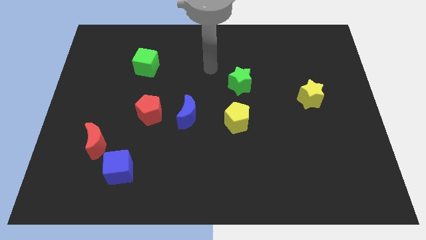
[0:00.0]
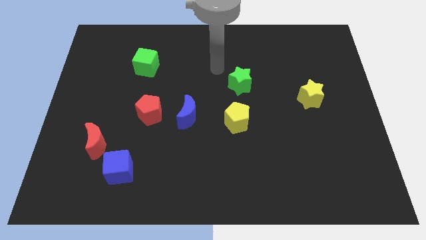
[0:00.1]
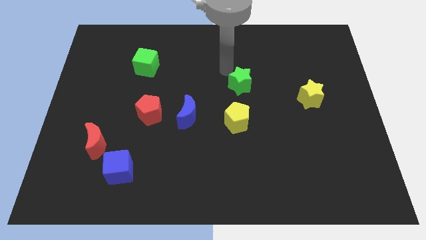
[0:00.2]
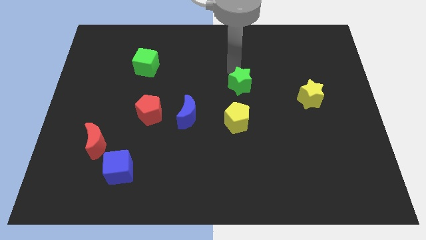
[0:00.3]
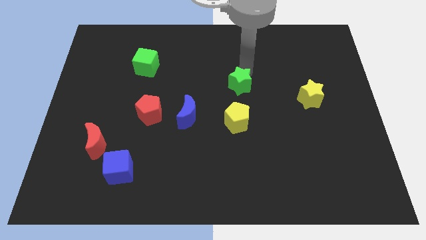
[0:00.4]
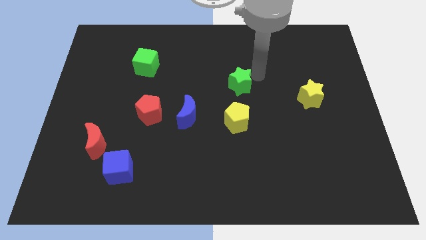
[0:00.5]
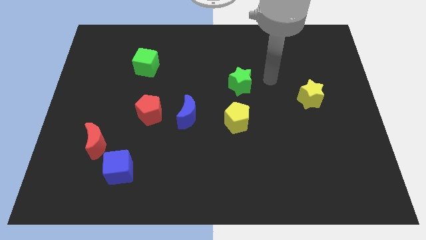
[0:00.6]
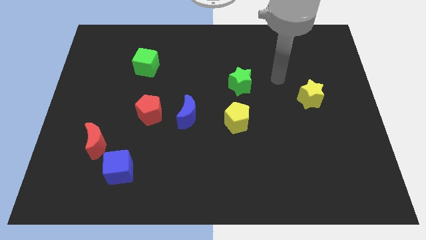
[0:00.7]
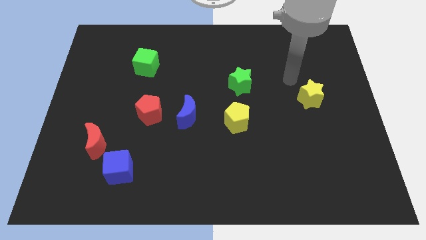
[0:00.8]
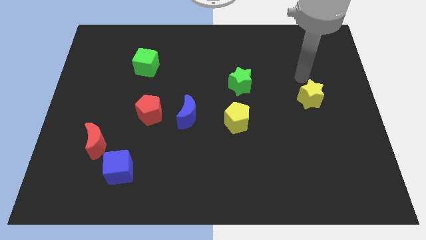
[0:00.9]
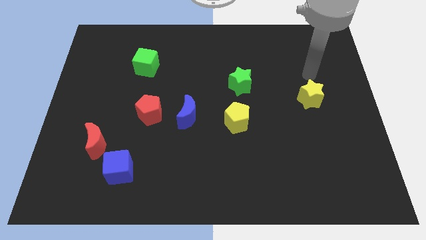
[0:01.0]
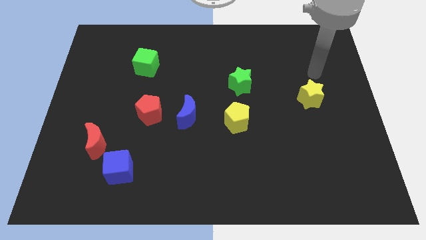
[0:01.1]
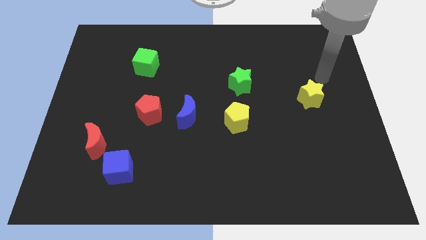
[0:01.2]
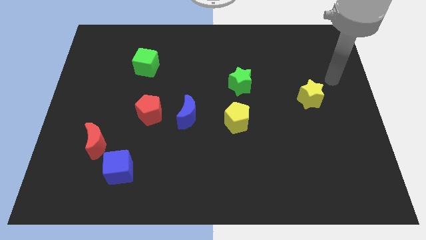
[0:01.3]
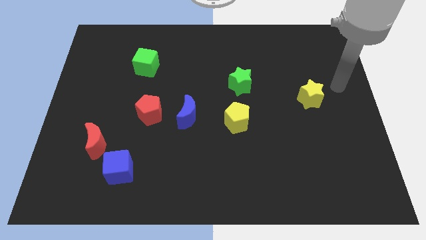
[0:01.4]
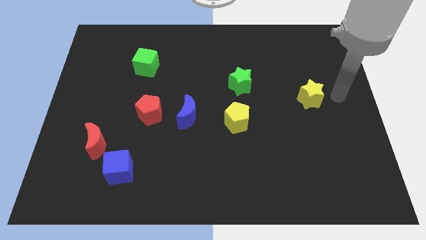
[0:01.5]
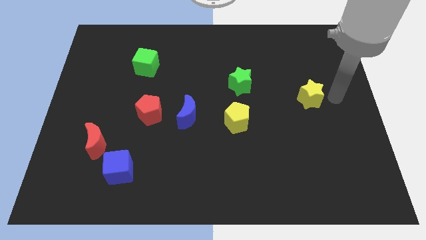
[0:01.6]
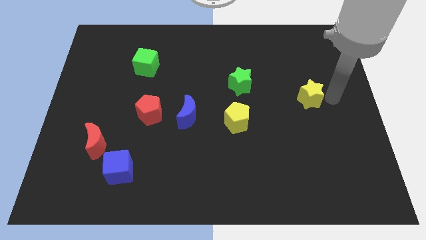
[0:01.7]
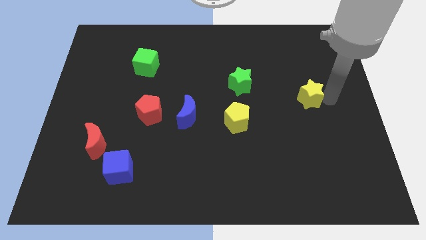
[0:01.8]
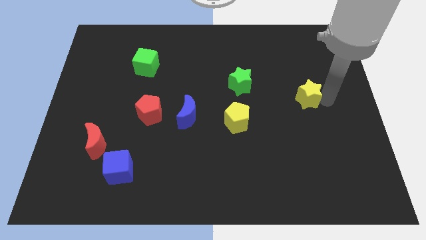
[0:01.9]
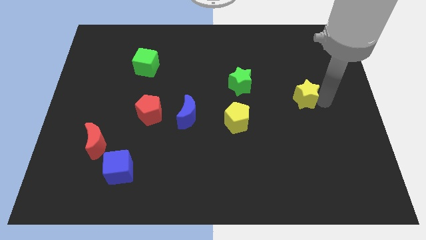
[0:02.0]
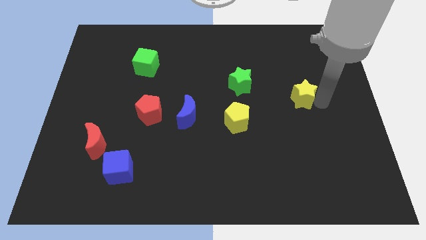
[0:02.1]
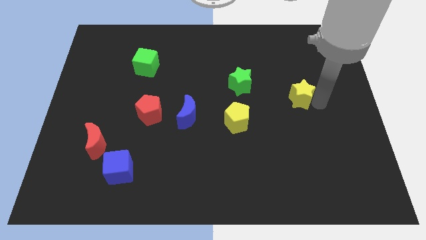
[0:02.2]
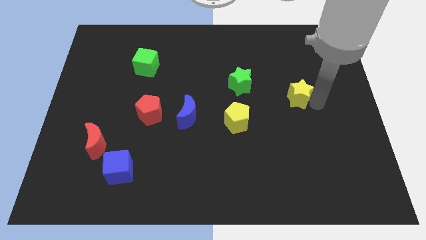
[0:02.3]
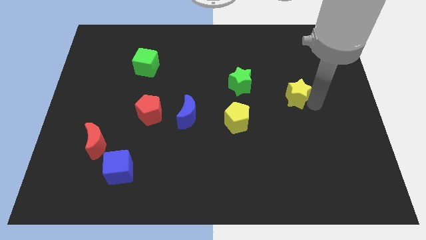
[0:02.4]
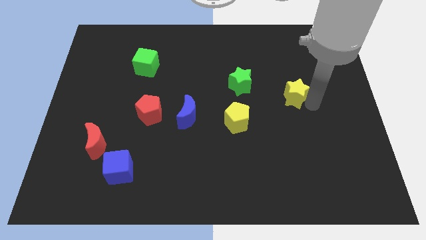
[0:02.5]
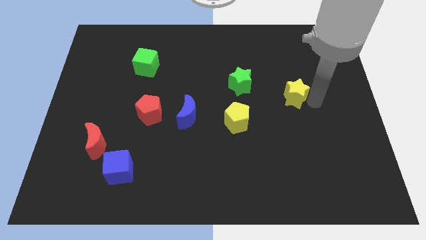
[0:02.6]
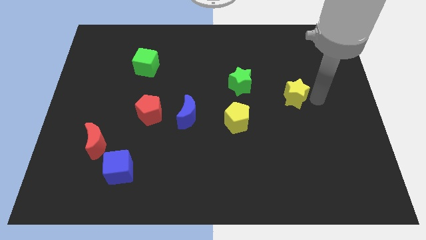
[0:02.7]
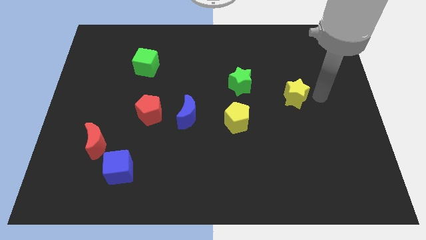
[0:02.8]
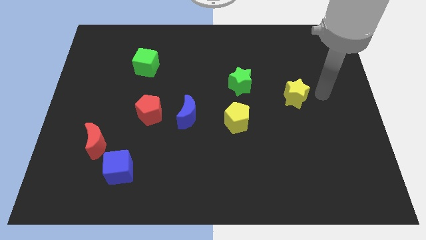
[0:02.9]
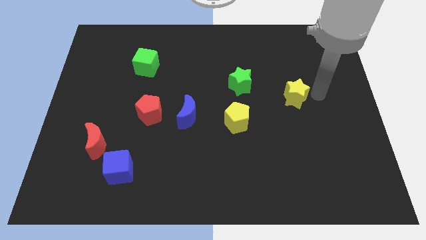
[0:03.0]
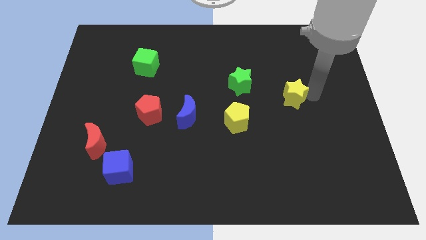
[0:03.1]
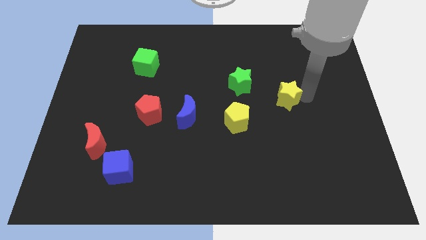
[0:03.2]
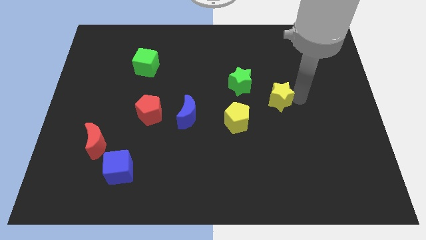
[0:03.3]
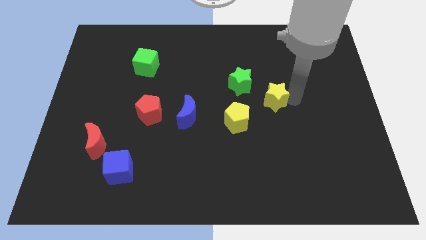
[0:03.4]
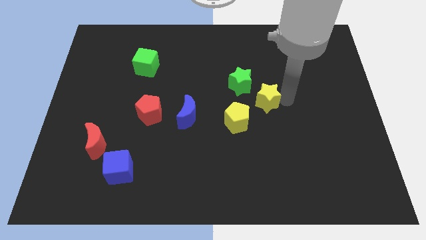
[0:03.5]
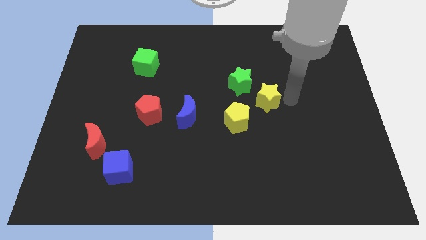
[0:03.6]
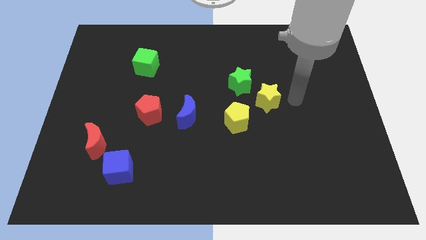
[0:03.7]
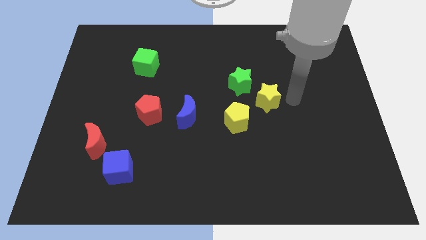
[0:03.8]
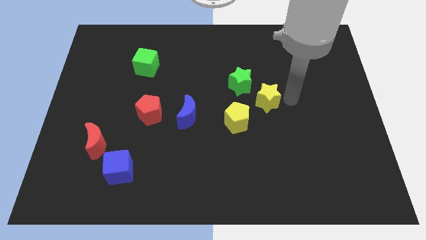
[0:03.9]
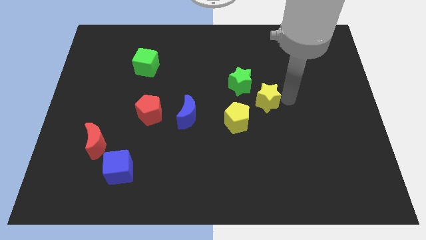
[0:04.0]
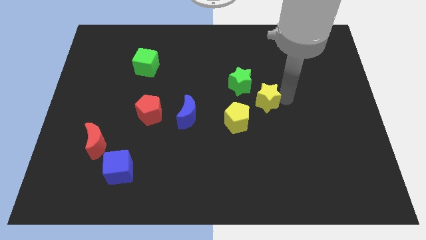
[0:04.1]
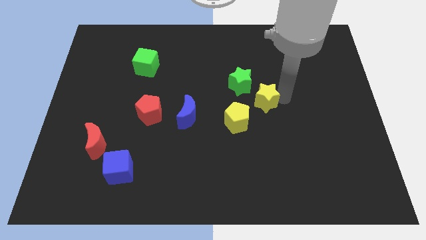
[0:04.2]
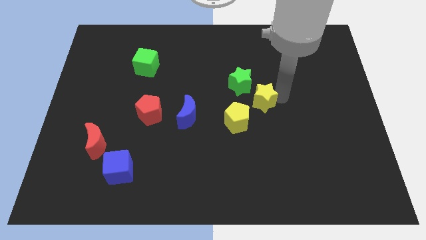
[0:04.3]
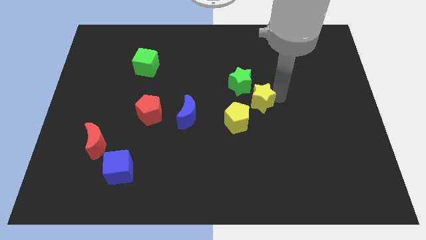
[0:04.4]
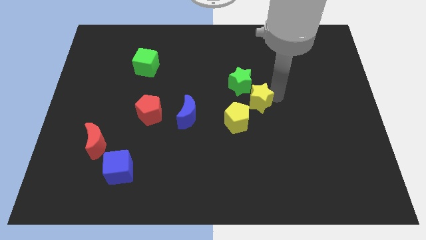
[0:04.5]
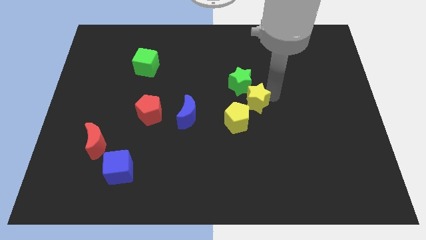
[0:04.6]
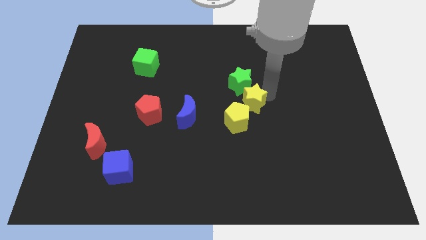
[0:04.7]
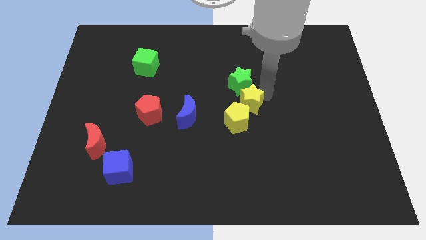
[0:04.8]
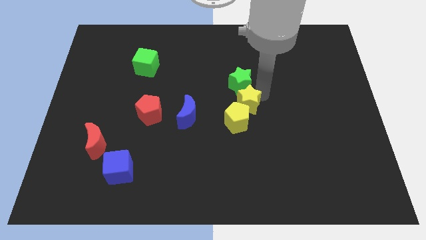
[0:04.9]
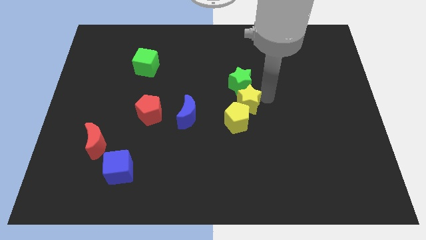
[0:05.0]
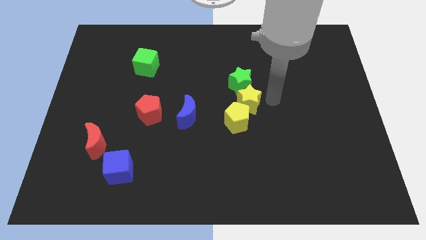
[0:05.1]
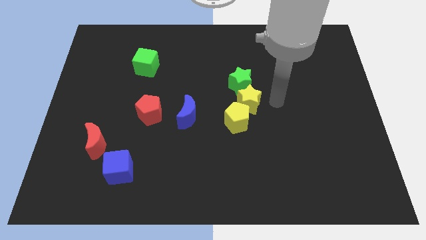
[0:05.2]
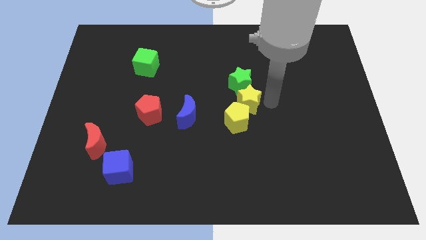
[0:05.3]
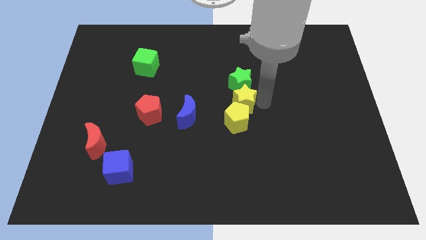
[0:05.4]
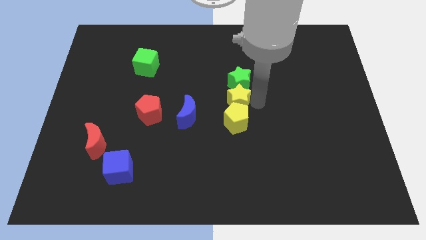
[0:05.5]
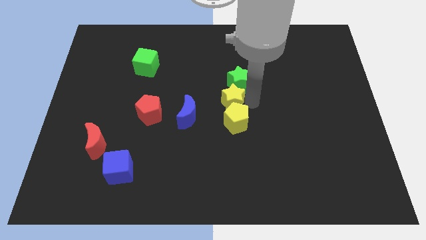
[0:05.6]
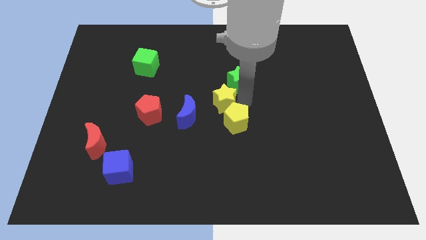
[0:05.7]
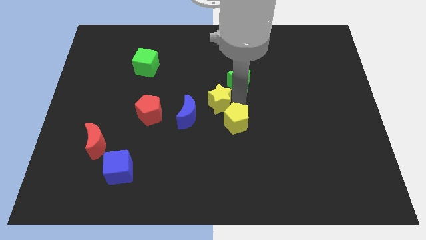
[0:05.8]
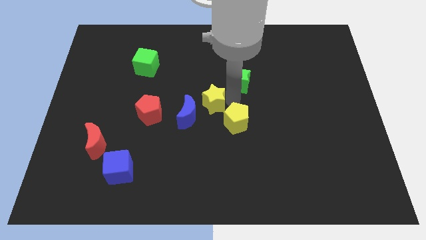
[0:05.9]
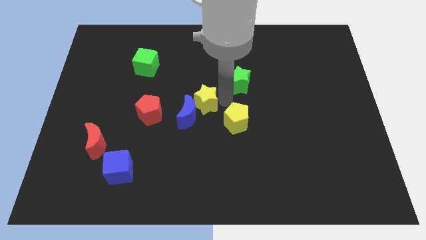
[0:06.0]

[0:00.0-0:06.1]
slide the yellow star close to the blue moon

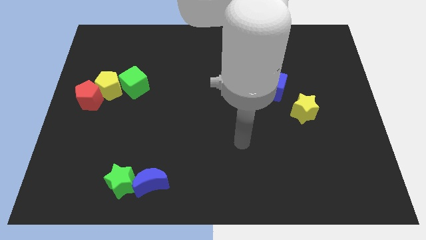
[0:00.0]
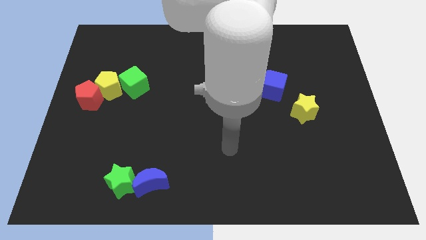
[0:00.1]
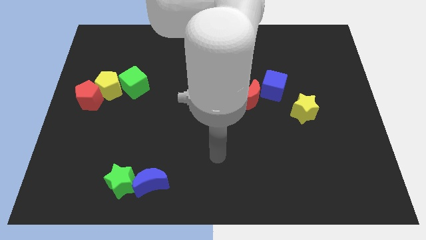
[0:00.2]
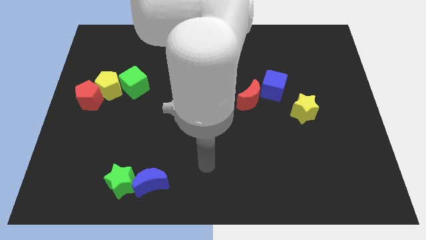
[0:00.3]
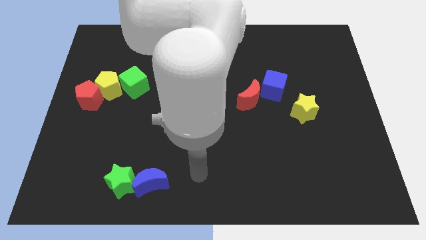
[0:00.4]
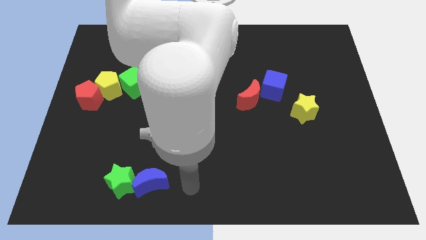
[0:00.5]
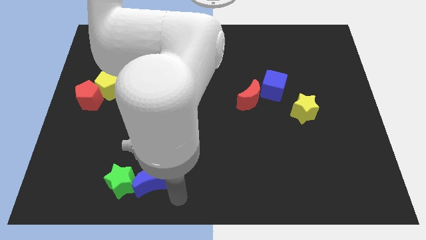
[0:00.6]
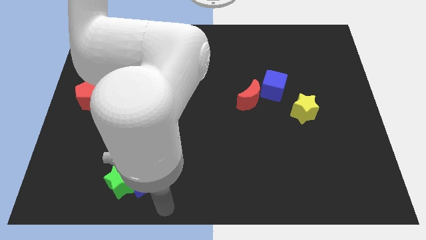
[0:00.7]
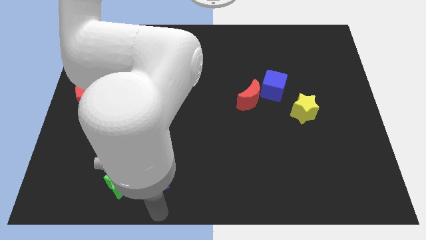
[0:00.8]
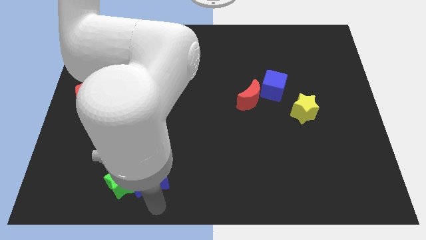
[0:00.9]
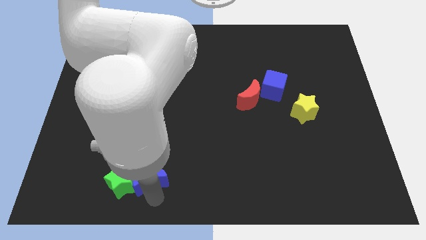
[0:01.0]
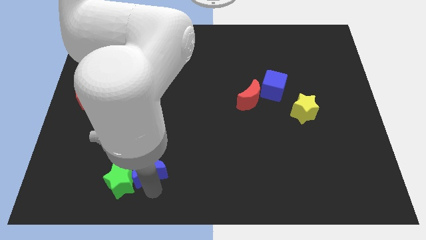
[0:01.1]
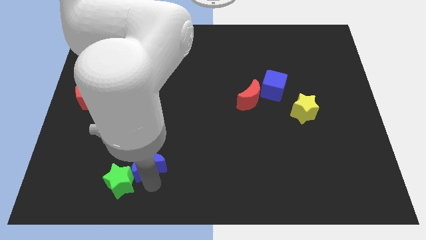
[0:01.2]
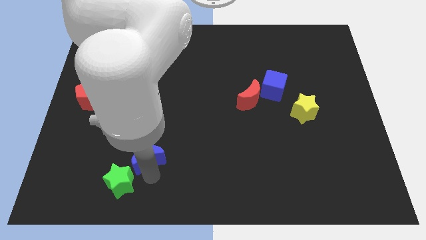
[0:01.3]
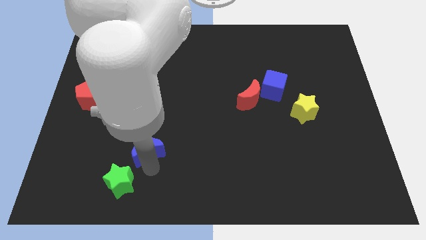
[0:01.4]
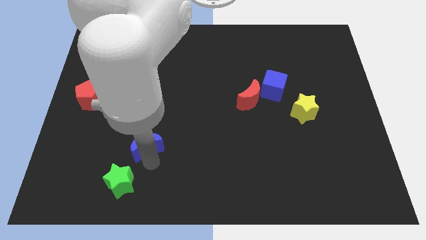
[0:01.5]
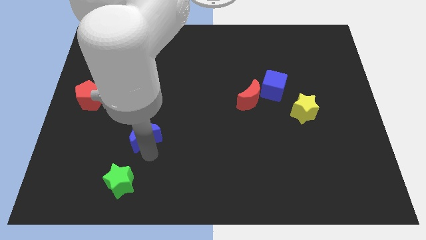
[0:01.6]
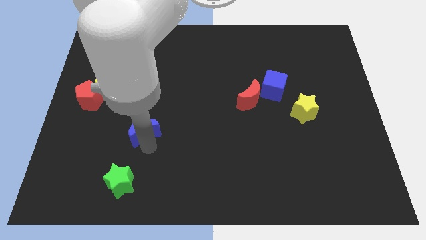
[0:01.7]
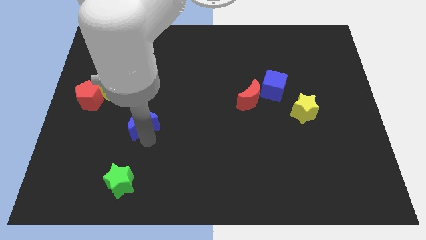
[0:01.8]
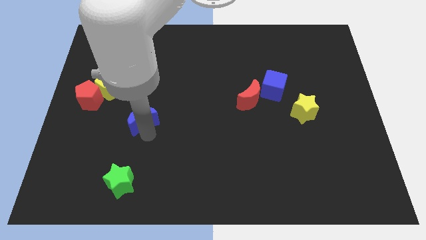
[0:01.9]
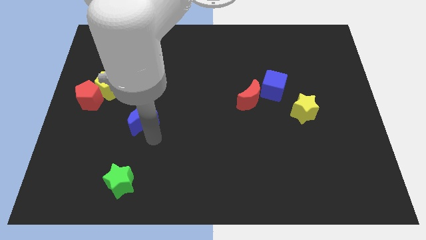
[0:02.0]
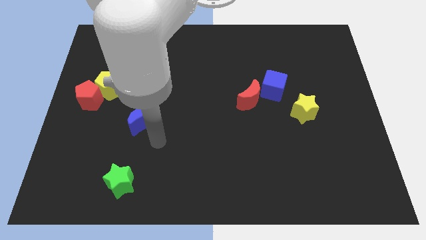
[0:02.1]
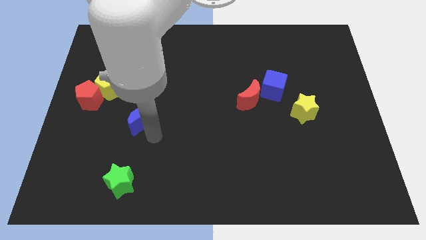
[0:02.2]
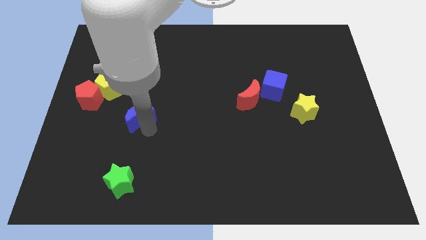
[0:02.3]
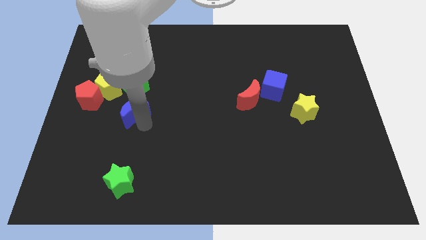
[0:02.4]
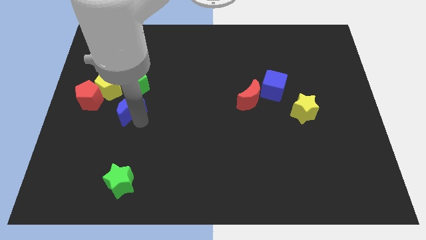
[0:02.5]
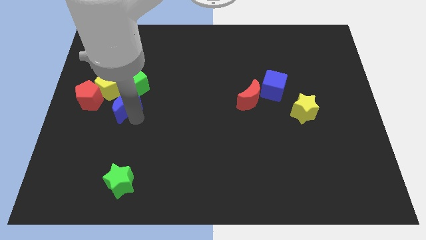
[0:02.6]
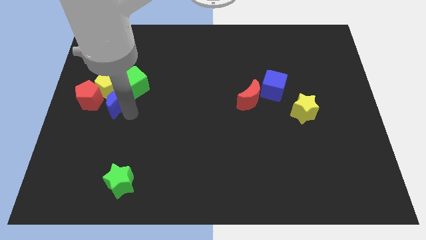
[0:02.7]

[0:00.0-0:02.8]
put the blue moon close to the yellow pentagon
